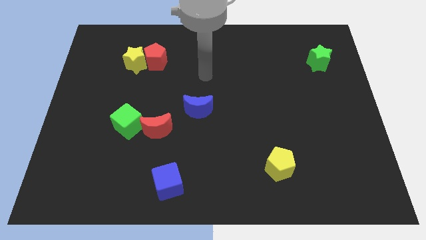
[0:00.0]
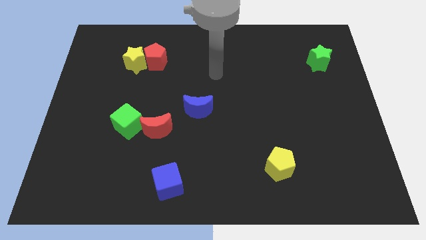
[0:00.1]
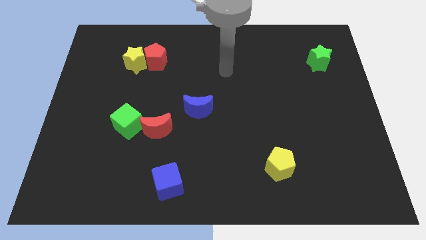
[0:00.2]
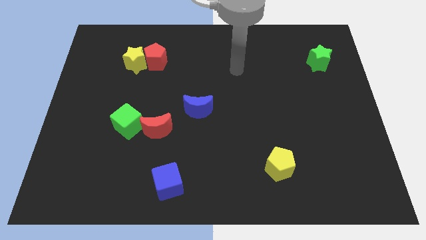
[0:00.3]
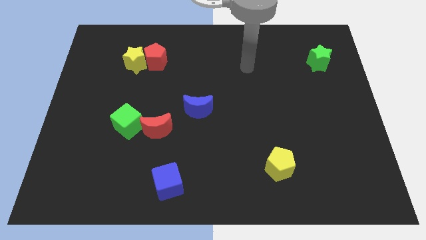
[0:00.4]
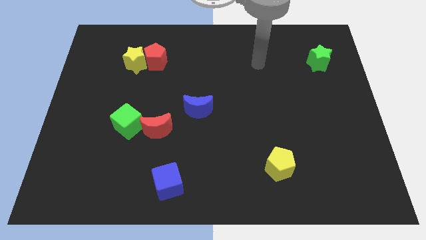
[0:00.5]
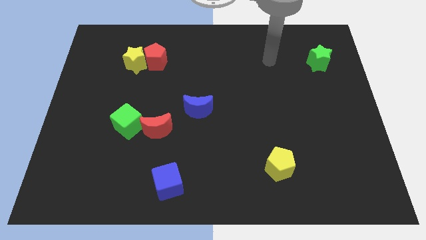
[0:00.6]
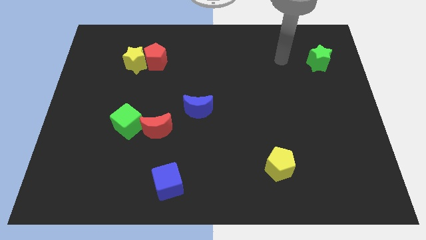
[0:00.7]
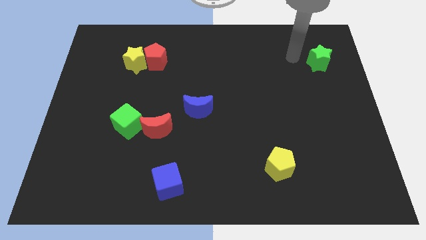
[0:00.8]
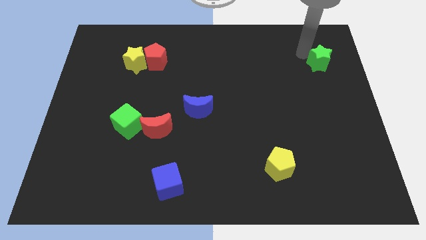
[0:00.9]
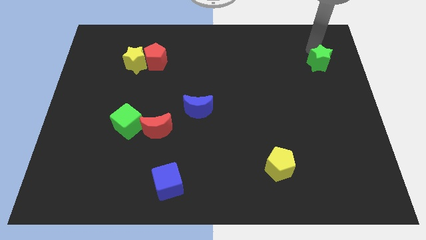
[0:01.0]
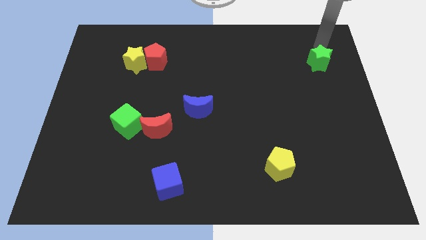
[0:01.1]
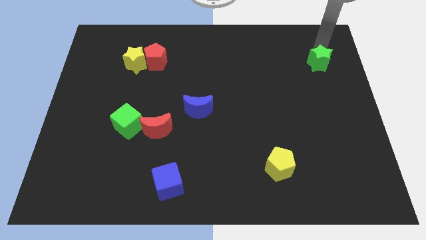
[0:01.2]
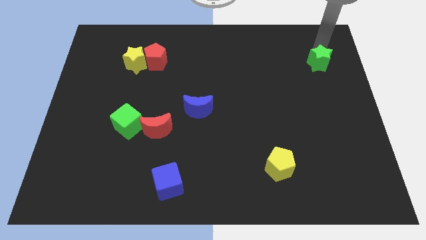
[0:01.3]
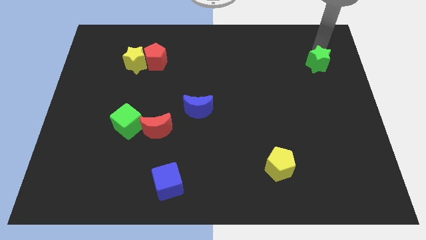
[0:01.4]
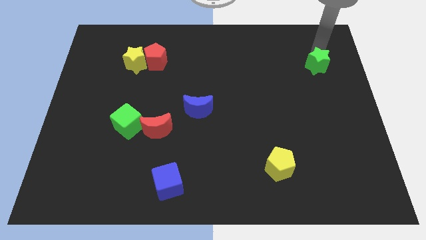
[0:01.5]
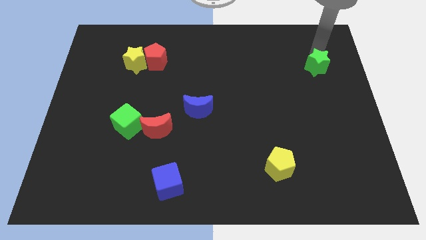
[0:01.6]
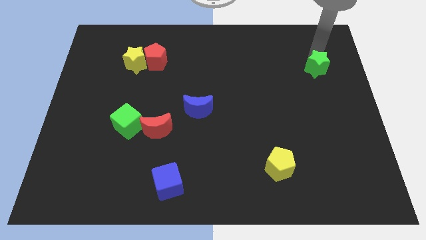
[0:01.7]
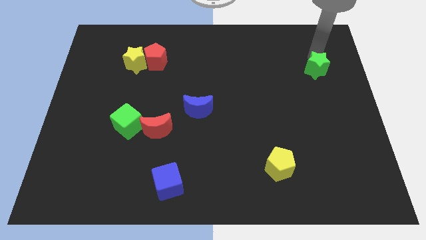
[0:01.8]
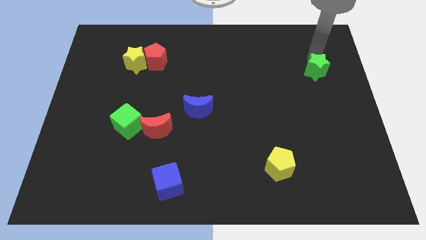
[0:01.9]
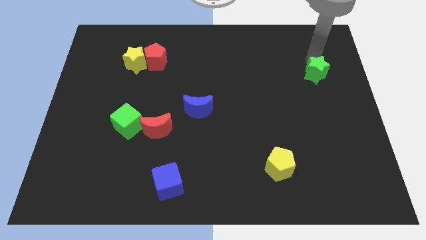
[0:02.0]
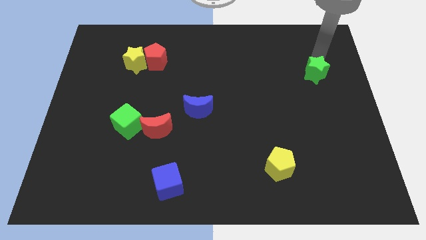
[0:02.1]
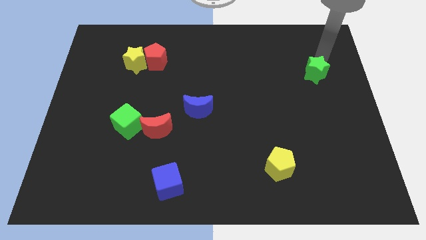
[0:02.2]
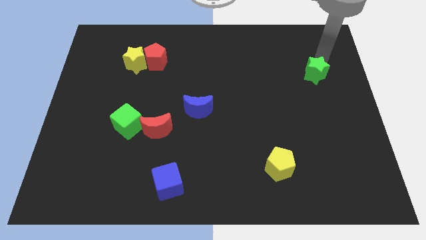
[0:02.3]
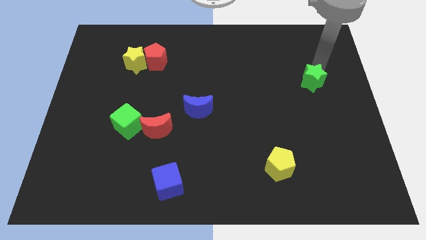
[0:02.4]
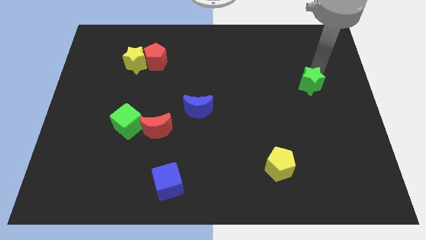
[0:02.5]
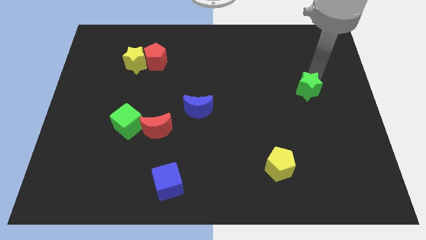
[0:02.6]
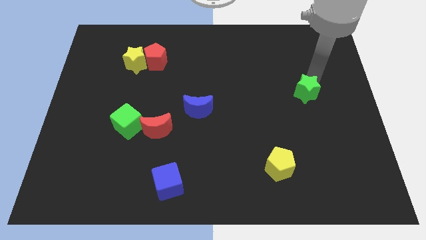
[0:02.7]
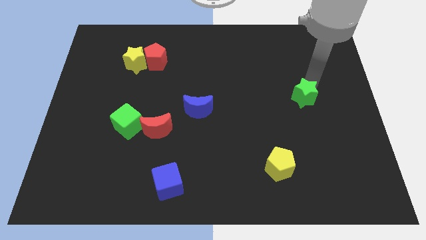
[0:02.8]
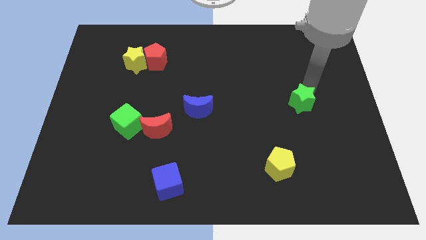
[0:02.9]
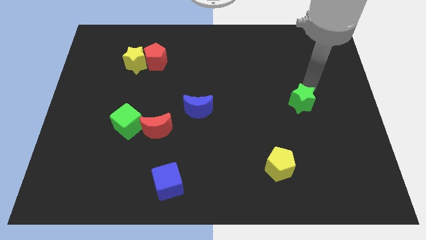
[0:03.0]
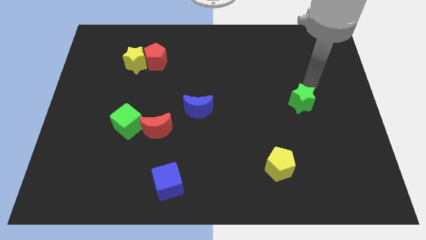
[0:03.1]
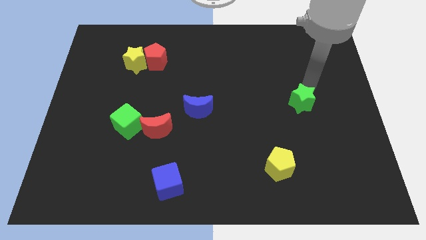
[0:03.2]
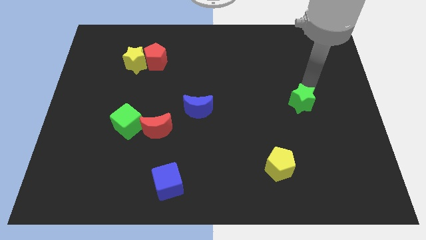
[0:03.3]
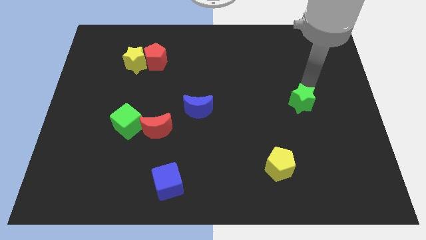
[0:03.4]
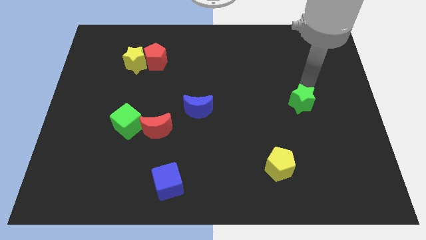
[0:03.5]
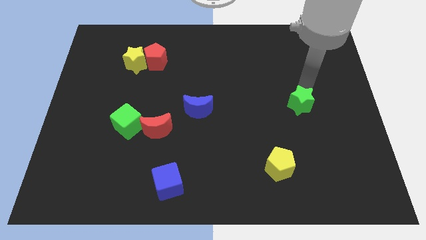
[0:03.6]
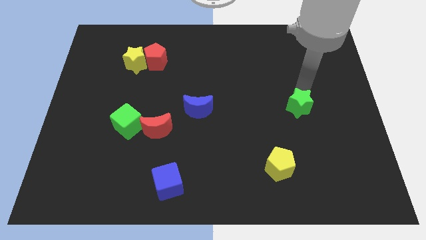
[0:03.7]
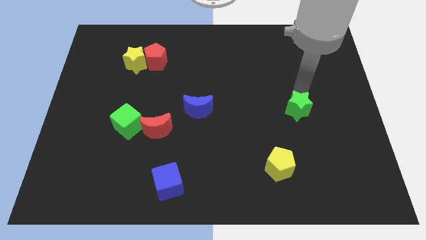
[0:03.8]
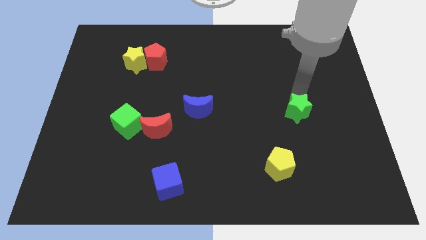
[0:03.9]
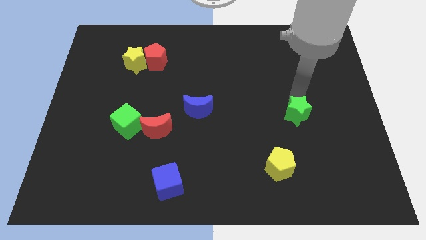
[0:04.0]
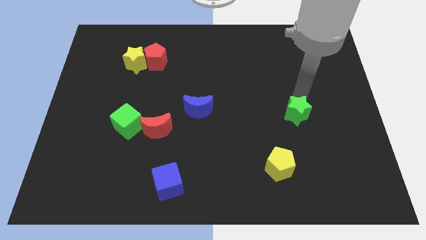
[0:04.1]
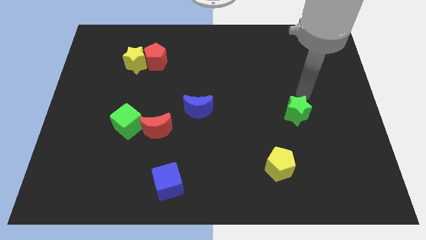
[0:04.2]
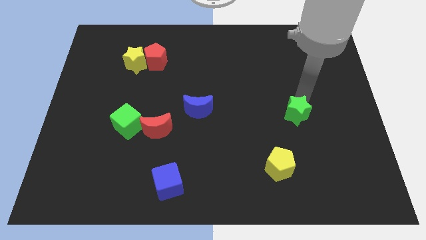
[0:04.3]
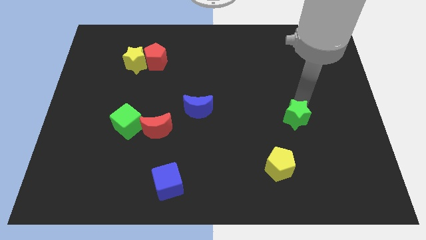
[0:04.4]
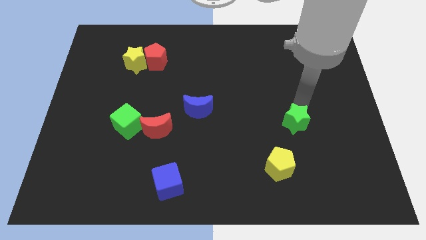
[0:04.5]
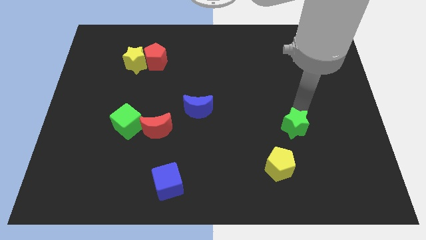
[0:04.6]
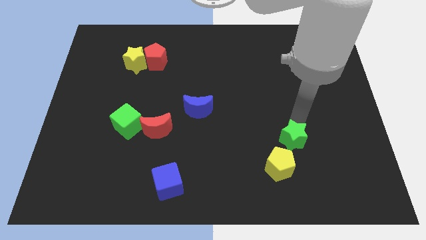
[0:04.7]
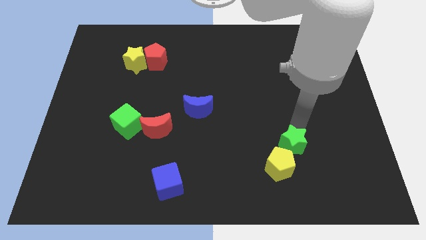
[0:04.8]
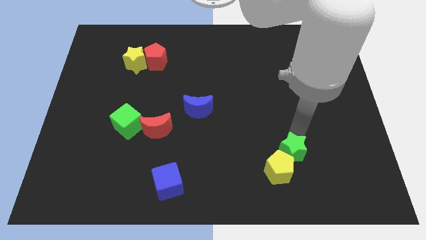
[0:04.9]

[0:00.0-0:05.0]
slide the green star next to the yellow pentagon

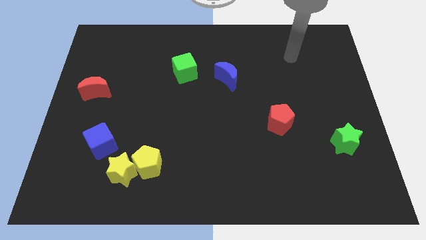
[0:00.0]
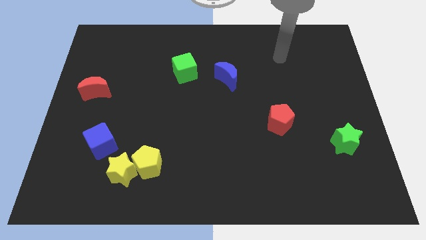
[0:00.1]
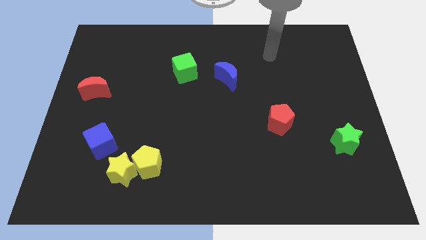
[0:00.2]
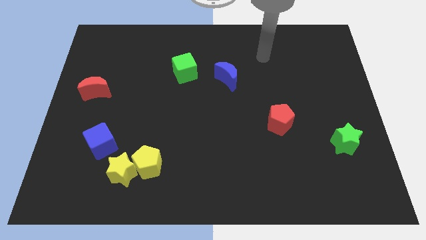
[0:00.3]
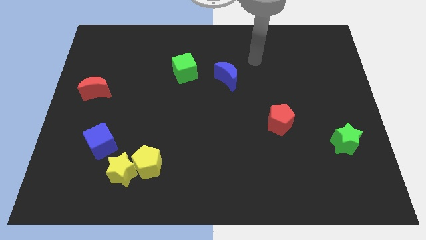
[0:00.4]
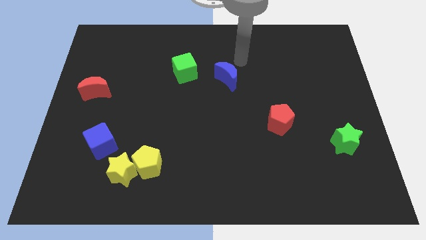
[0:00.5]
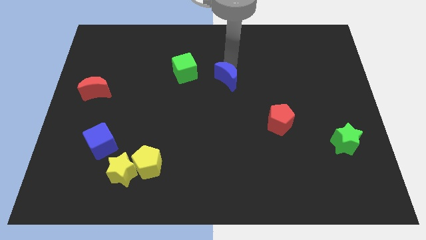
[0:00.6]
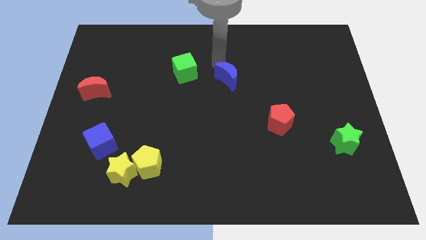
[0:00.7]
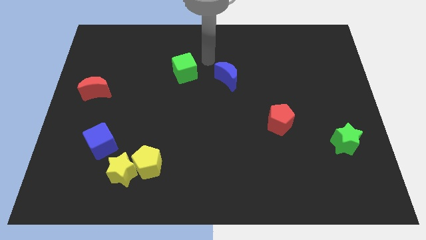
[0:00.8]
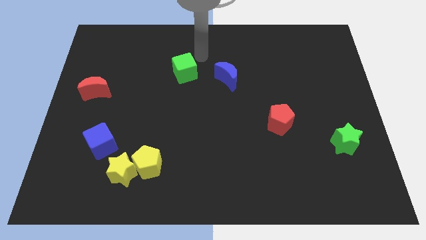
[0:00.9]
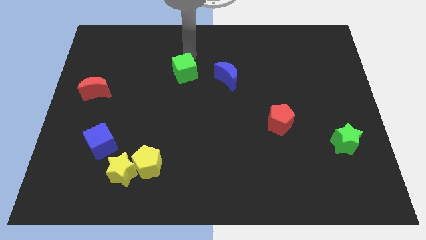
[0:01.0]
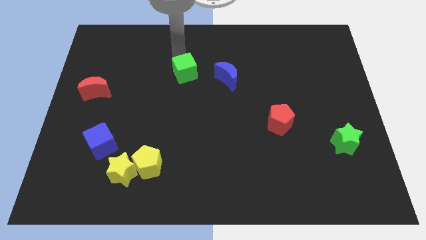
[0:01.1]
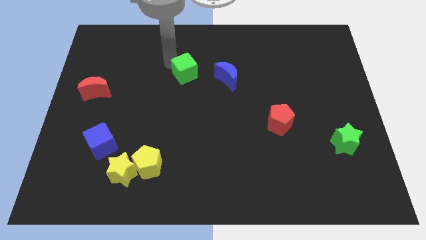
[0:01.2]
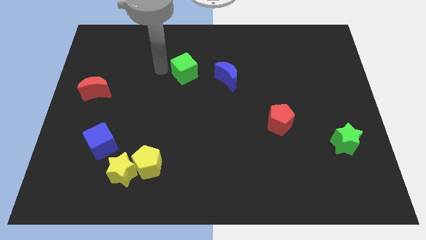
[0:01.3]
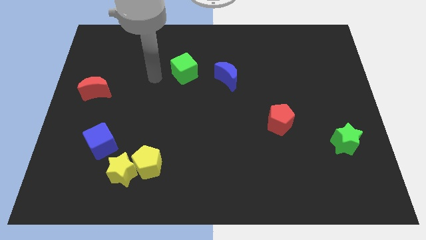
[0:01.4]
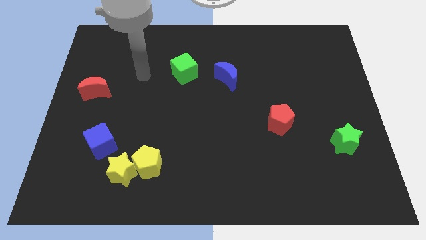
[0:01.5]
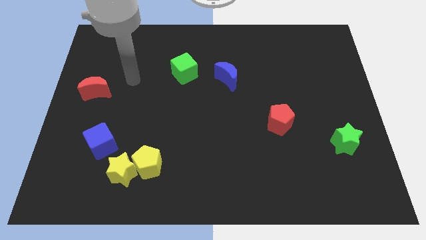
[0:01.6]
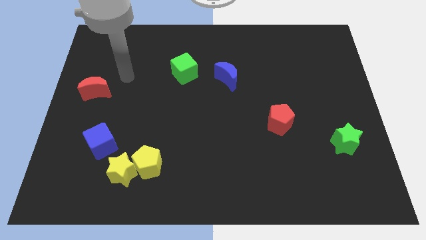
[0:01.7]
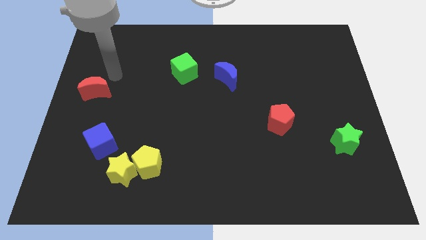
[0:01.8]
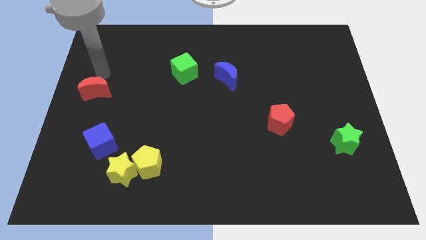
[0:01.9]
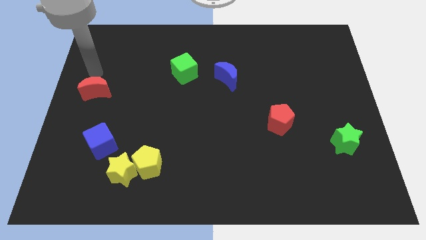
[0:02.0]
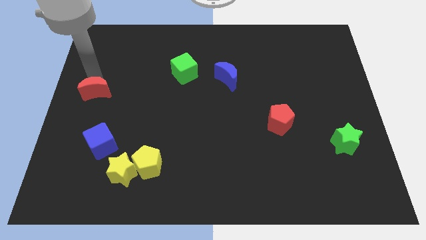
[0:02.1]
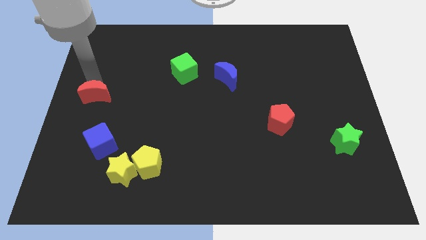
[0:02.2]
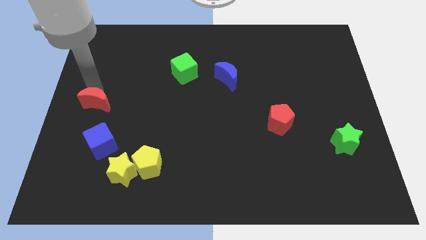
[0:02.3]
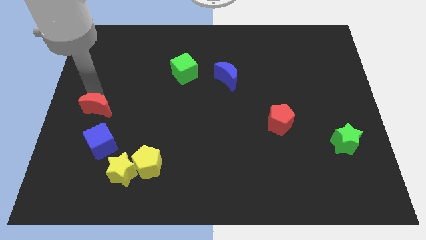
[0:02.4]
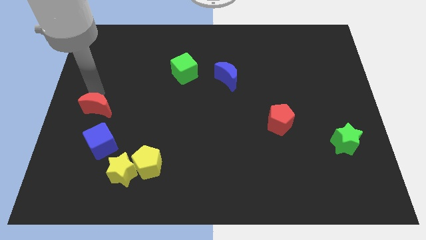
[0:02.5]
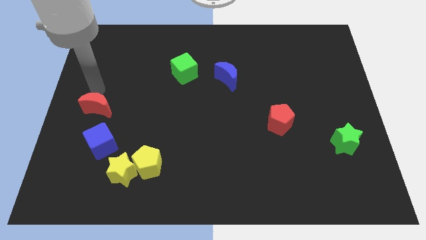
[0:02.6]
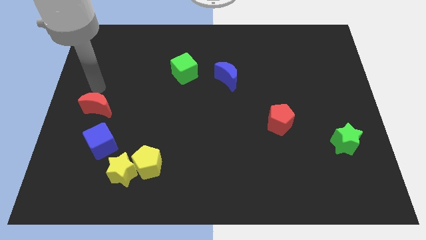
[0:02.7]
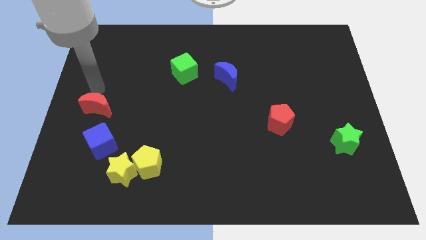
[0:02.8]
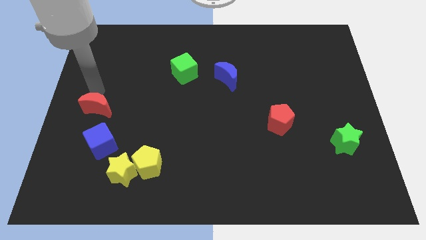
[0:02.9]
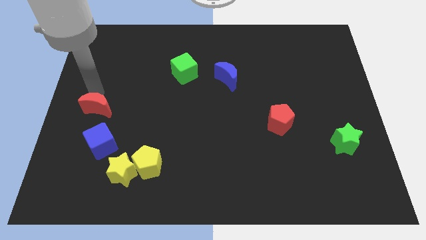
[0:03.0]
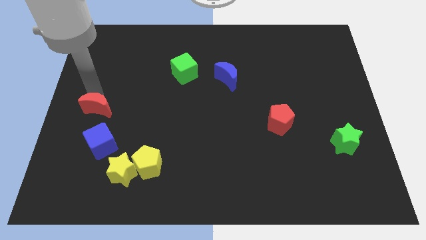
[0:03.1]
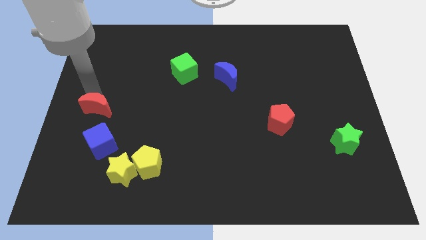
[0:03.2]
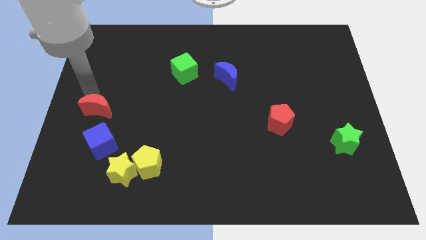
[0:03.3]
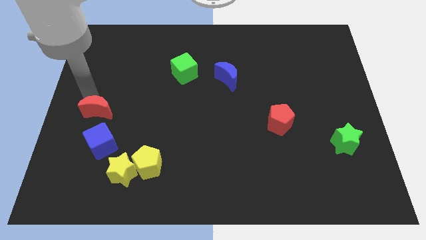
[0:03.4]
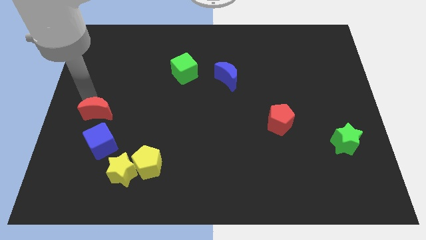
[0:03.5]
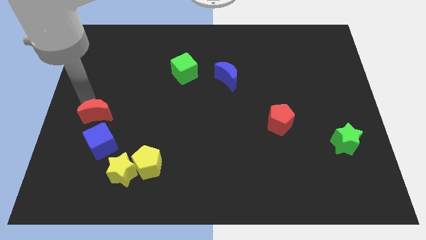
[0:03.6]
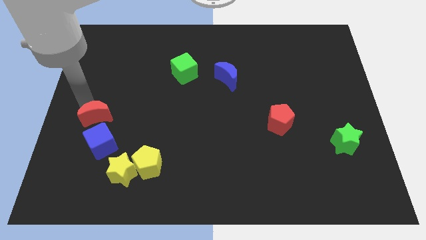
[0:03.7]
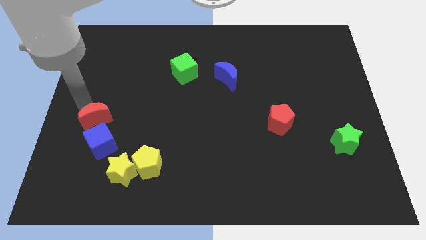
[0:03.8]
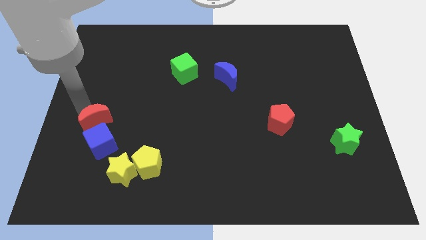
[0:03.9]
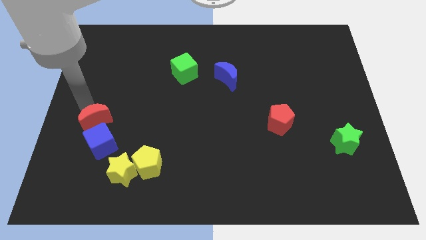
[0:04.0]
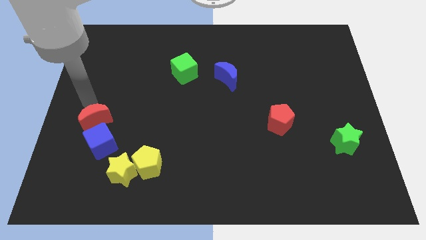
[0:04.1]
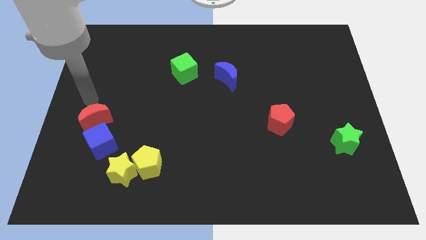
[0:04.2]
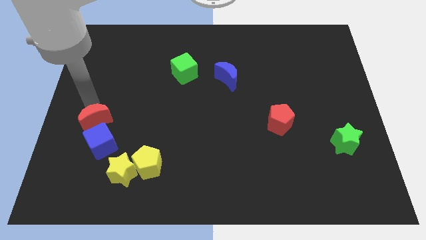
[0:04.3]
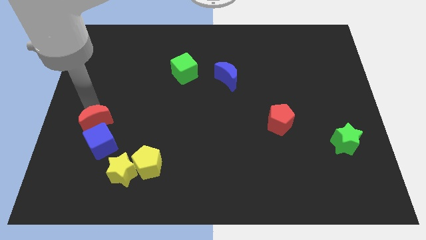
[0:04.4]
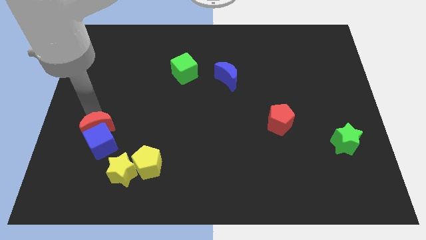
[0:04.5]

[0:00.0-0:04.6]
slide the red moon to the blue cube
